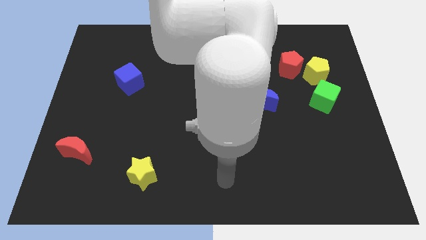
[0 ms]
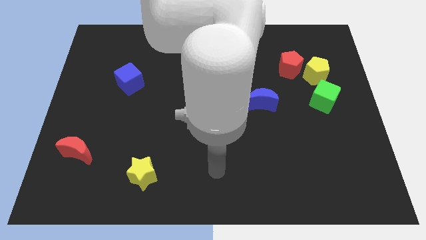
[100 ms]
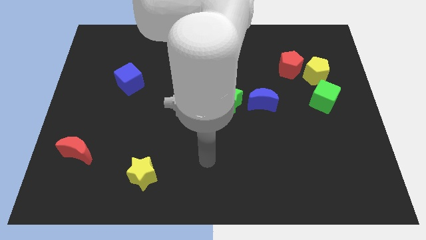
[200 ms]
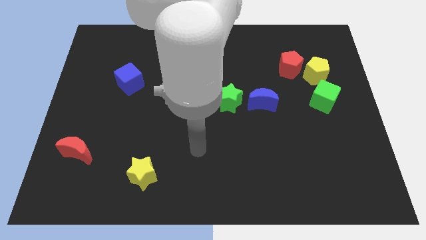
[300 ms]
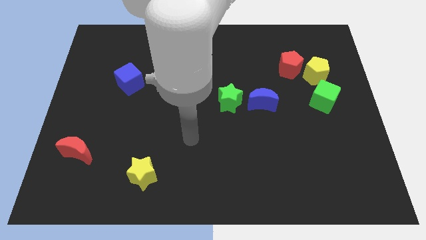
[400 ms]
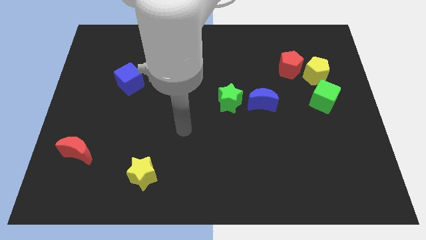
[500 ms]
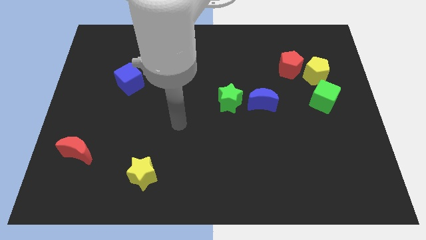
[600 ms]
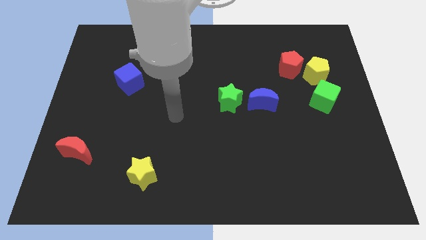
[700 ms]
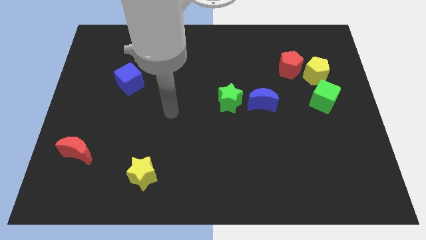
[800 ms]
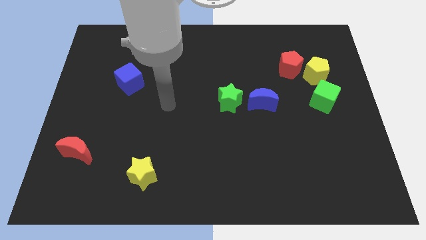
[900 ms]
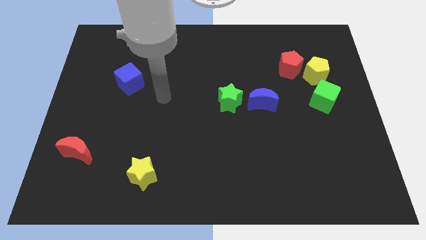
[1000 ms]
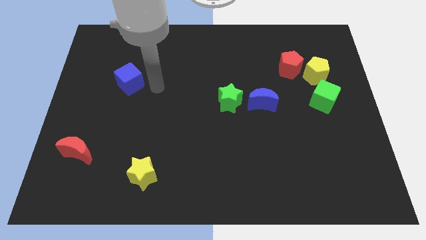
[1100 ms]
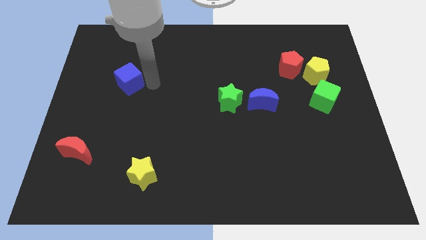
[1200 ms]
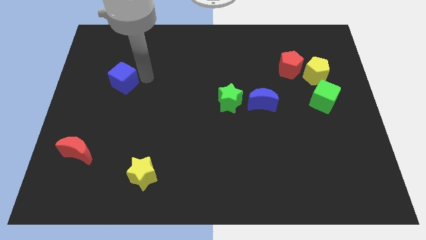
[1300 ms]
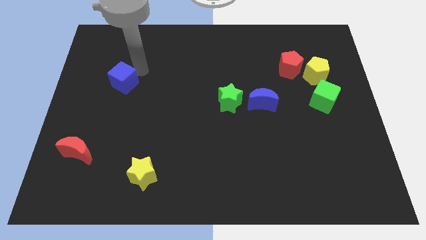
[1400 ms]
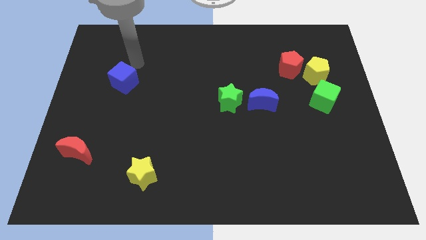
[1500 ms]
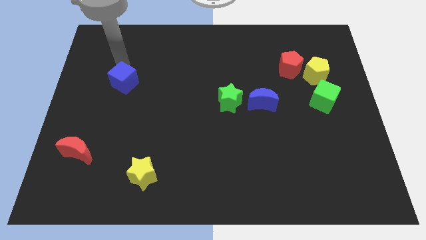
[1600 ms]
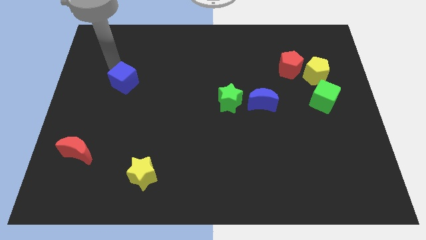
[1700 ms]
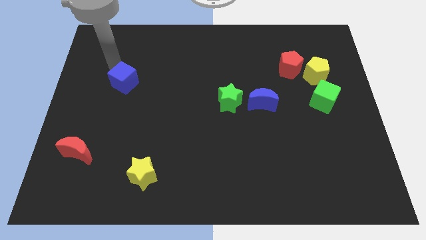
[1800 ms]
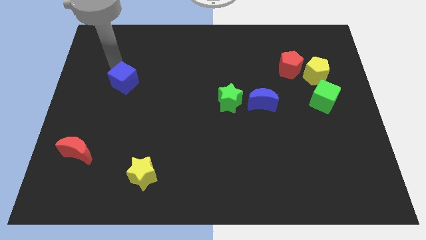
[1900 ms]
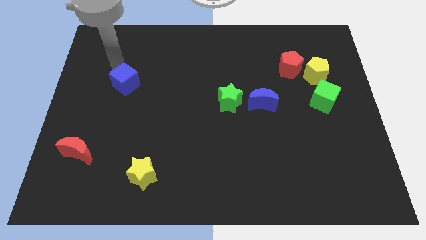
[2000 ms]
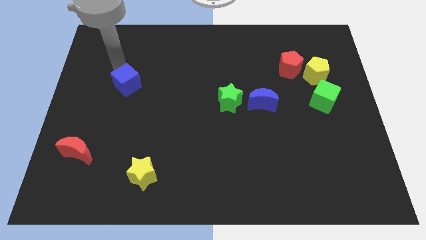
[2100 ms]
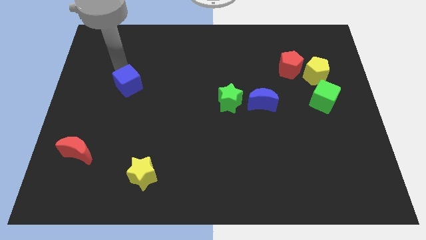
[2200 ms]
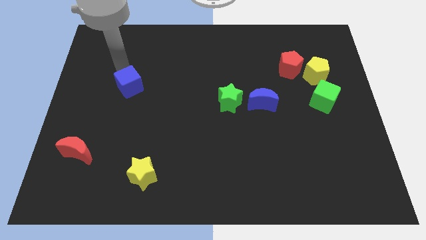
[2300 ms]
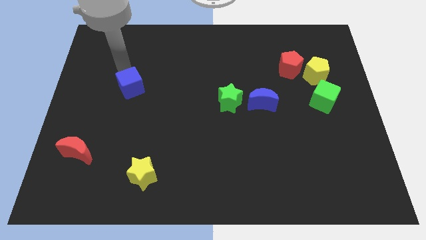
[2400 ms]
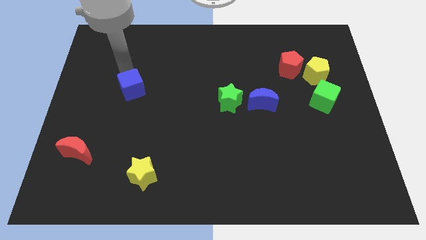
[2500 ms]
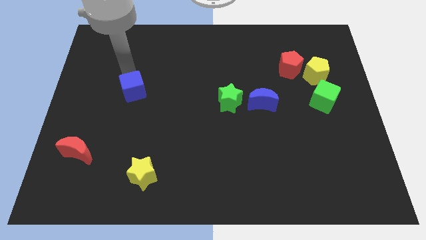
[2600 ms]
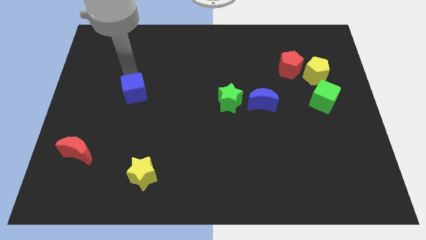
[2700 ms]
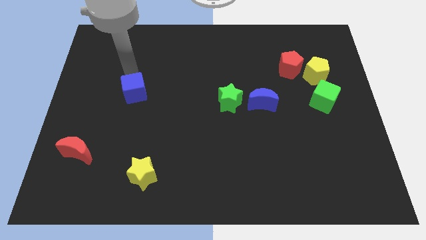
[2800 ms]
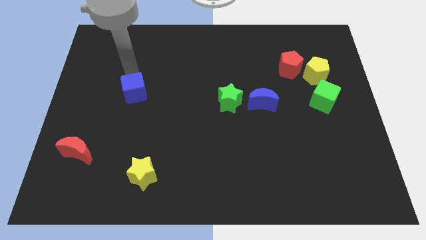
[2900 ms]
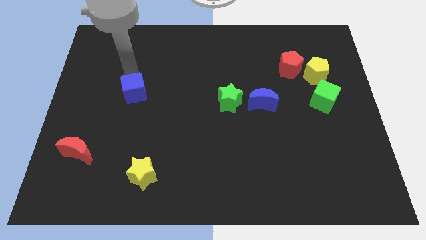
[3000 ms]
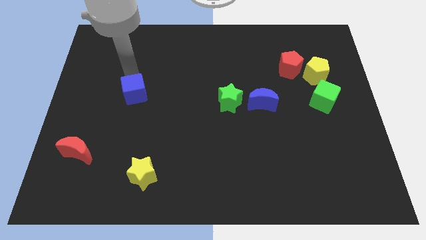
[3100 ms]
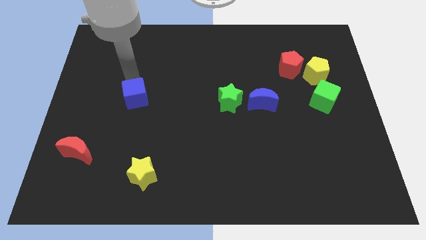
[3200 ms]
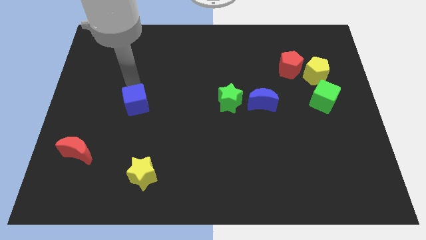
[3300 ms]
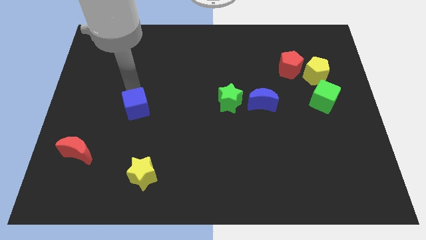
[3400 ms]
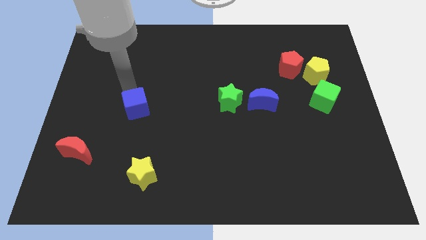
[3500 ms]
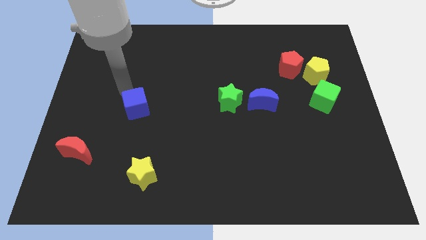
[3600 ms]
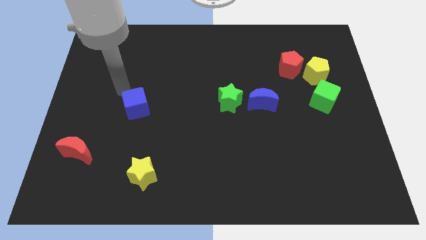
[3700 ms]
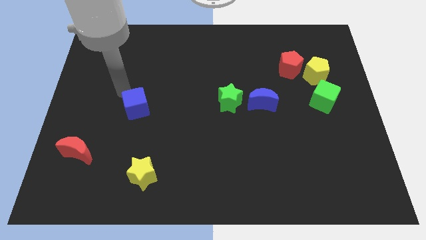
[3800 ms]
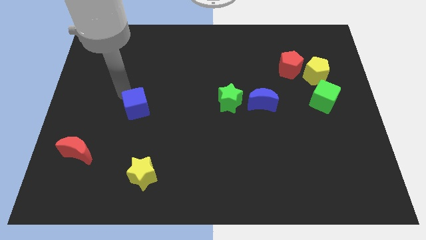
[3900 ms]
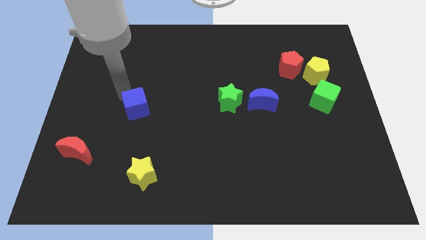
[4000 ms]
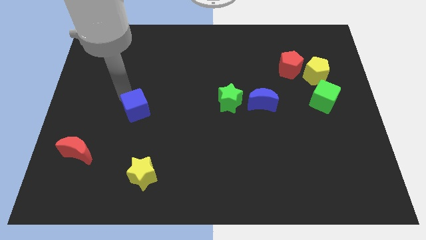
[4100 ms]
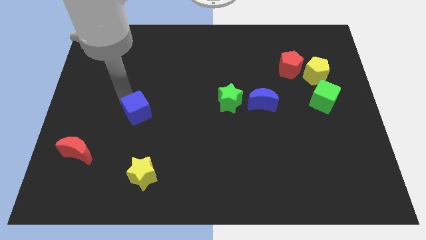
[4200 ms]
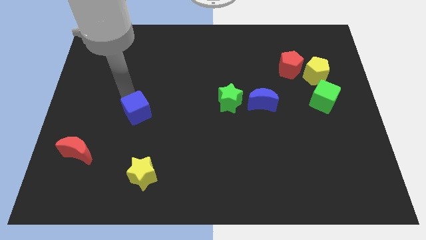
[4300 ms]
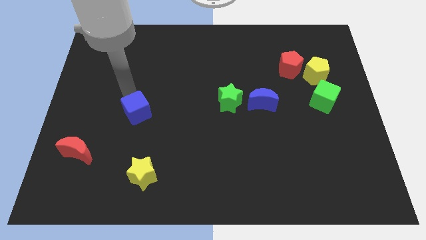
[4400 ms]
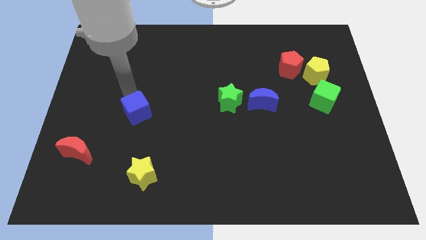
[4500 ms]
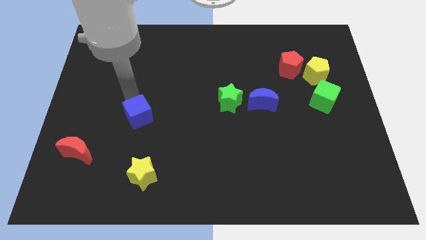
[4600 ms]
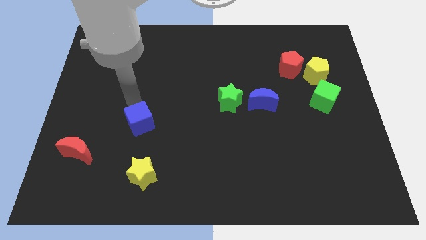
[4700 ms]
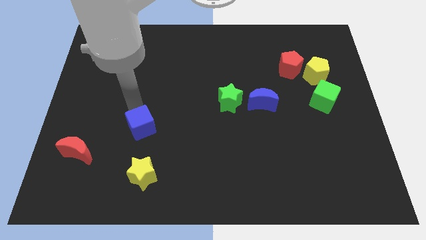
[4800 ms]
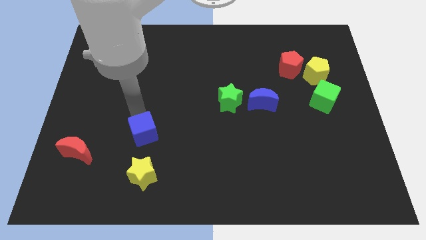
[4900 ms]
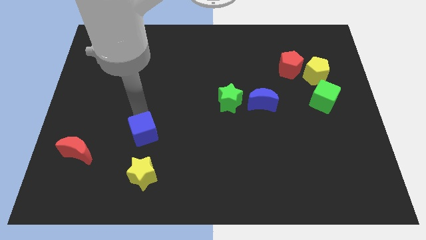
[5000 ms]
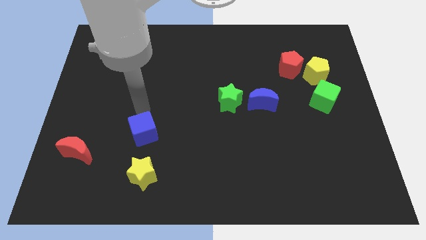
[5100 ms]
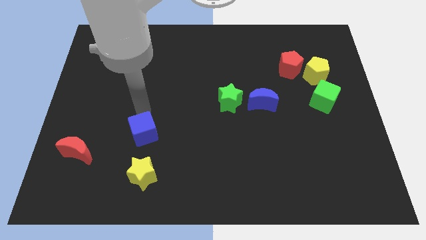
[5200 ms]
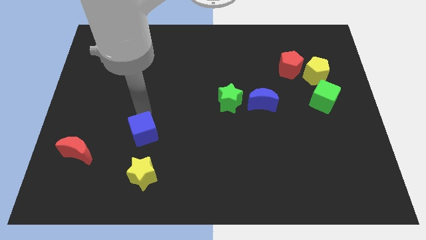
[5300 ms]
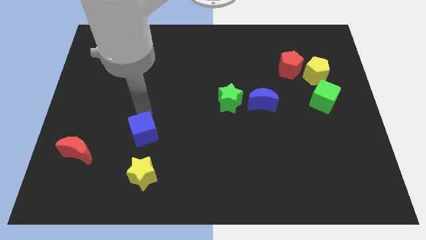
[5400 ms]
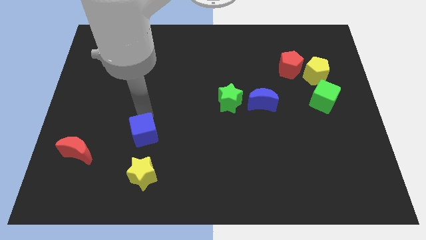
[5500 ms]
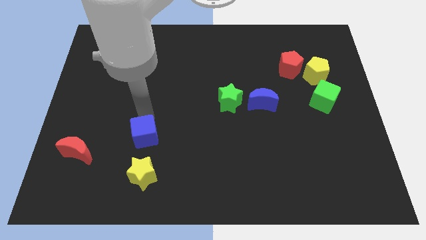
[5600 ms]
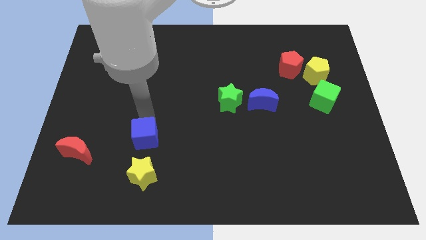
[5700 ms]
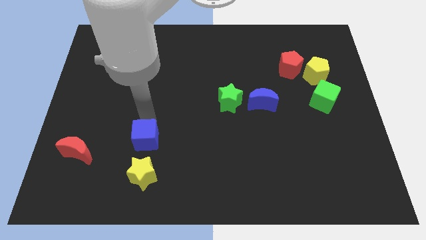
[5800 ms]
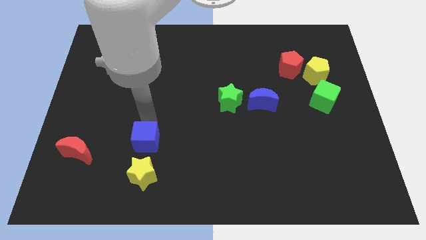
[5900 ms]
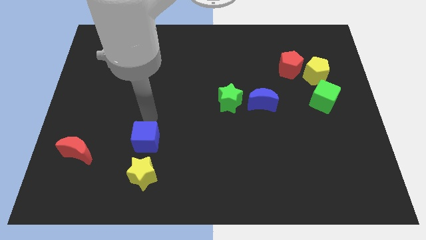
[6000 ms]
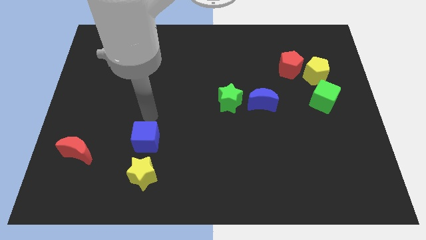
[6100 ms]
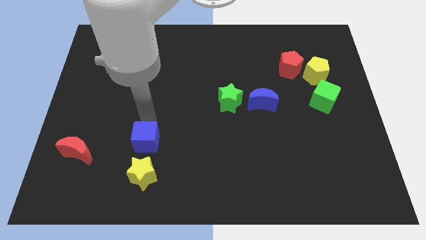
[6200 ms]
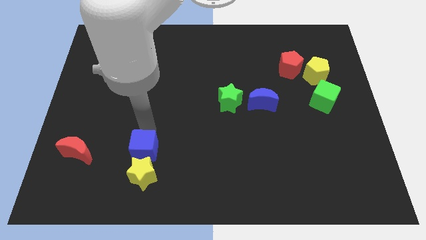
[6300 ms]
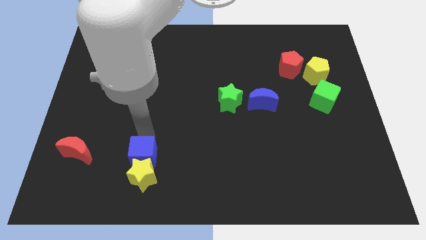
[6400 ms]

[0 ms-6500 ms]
slide the blue cube towards the yellow star
